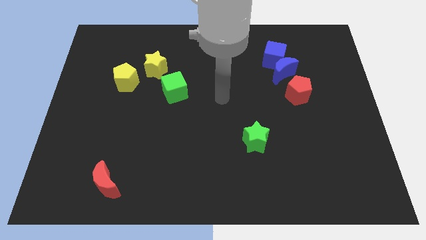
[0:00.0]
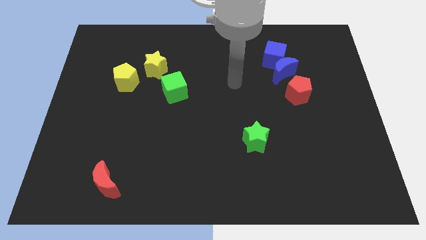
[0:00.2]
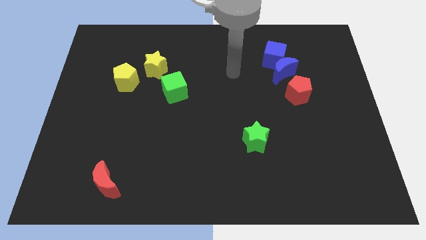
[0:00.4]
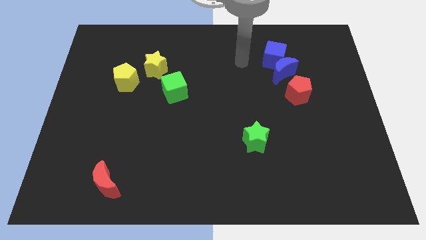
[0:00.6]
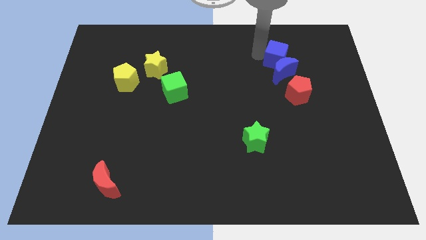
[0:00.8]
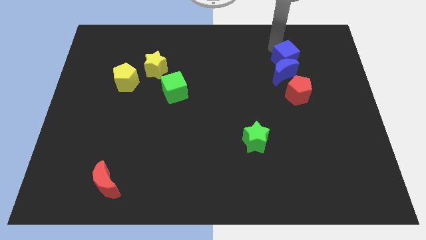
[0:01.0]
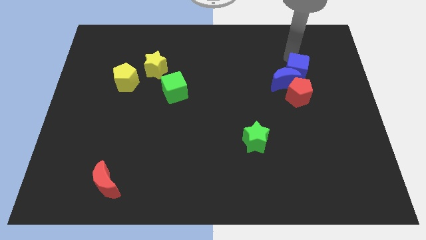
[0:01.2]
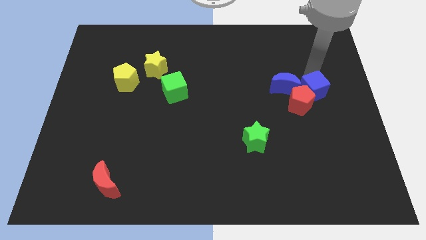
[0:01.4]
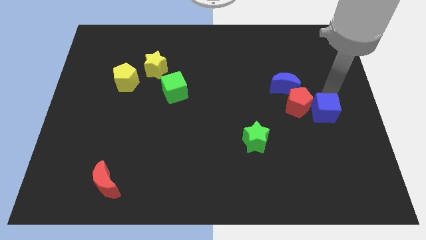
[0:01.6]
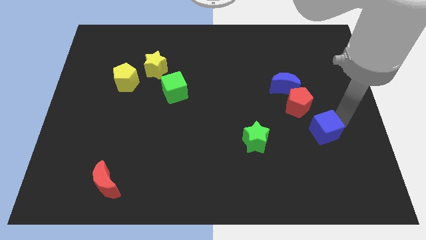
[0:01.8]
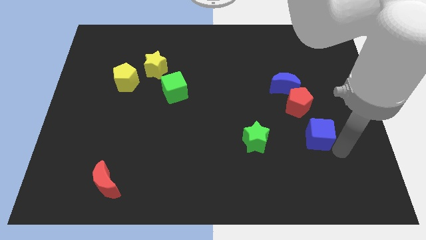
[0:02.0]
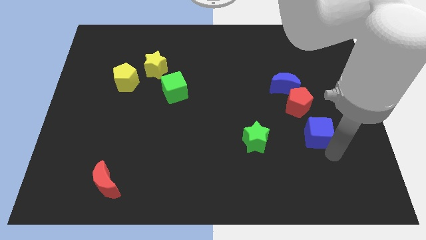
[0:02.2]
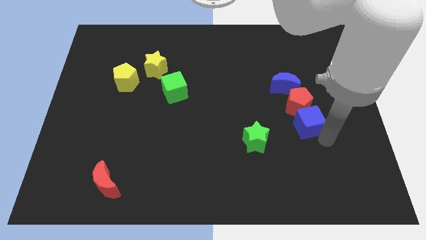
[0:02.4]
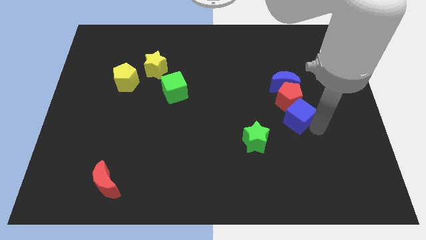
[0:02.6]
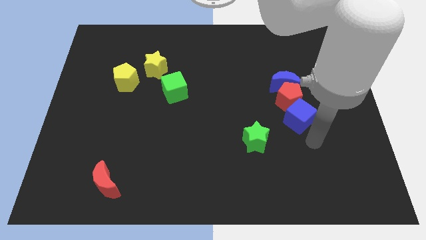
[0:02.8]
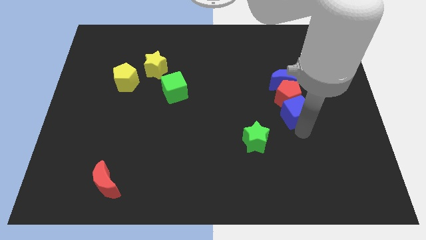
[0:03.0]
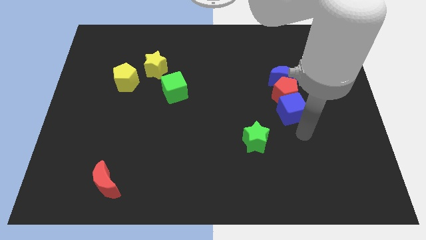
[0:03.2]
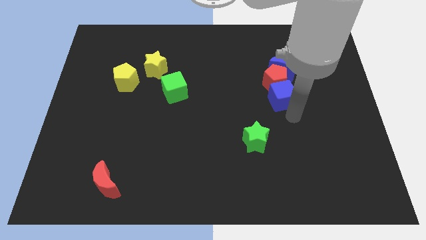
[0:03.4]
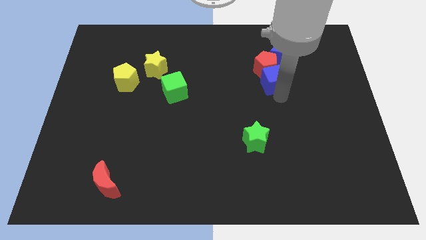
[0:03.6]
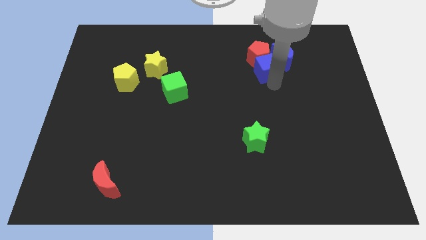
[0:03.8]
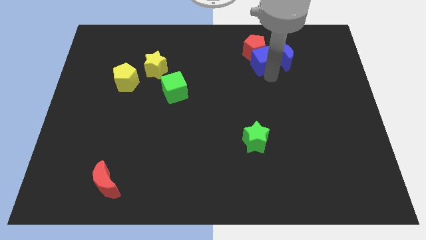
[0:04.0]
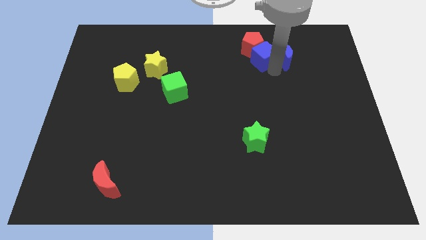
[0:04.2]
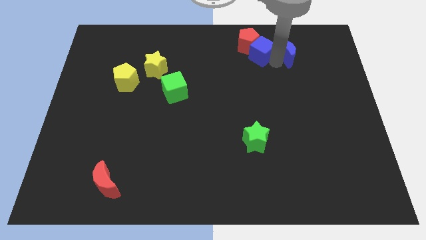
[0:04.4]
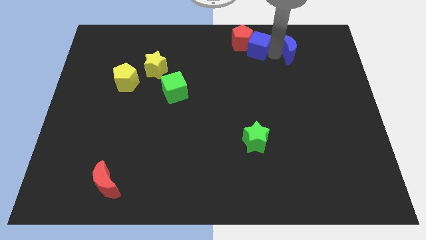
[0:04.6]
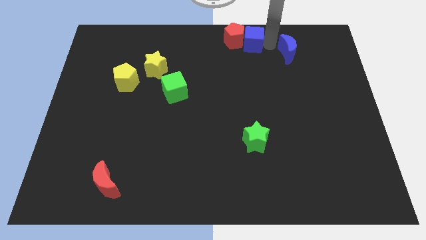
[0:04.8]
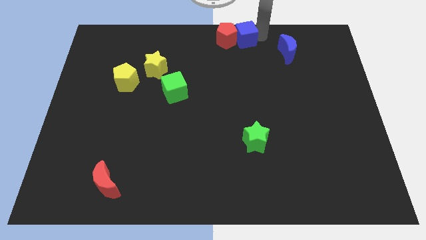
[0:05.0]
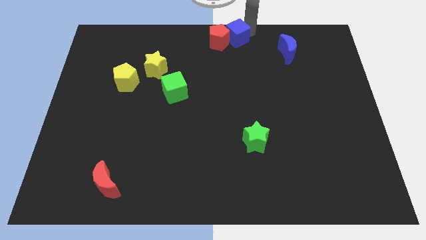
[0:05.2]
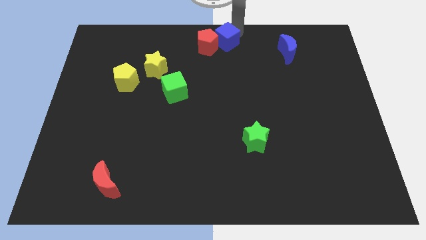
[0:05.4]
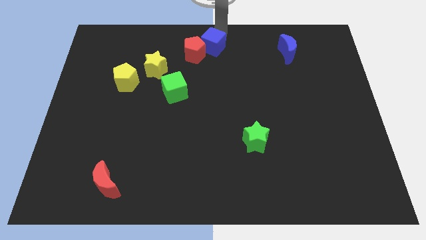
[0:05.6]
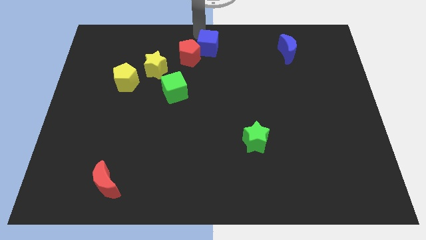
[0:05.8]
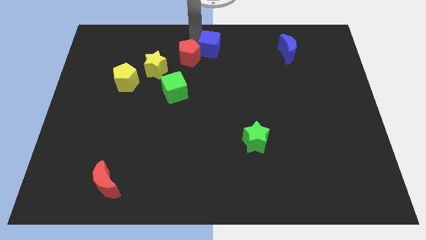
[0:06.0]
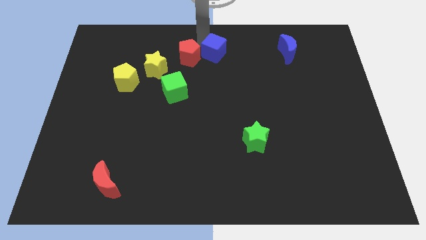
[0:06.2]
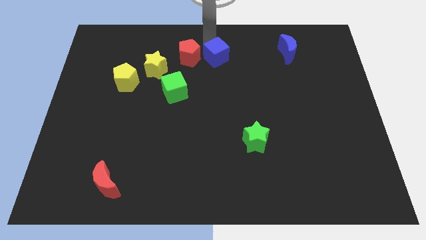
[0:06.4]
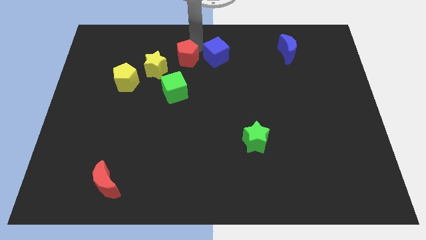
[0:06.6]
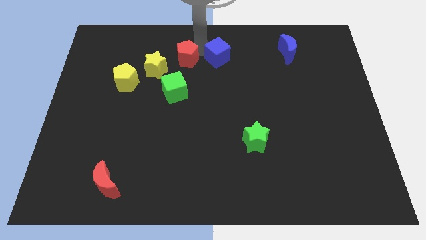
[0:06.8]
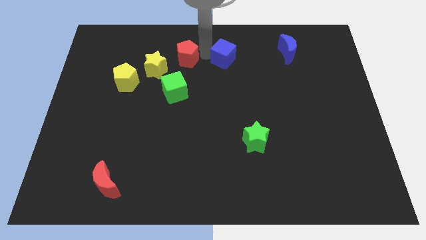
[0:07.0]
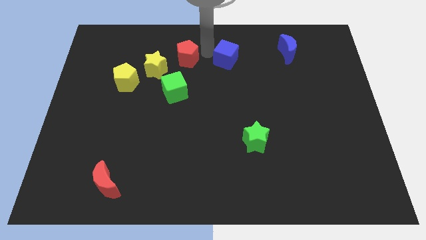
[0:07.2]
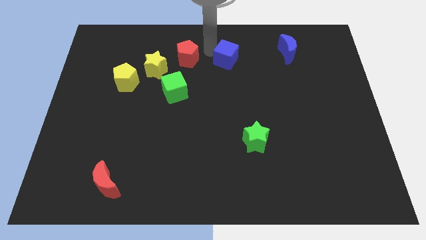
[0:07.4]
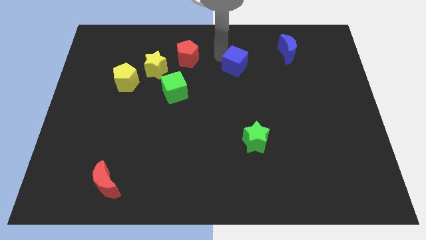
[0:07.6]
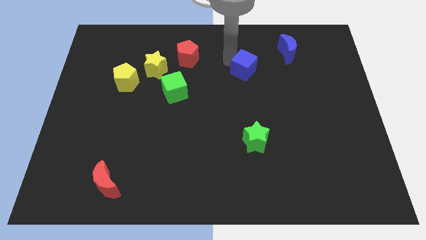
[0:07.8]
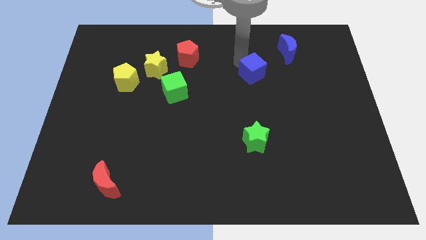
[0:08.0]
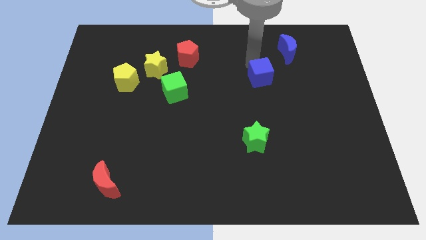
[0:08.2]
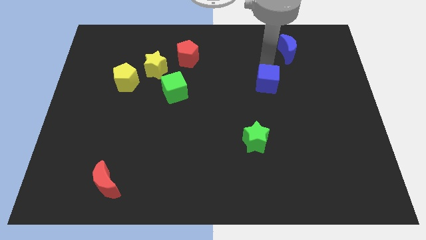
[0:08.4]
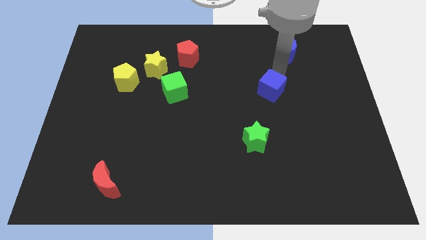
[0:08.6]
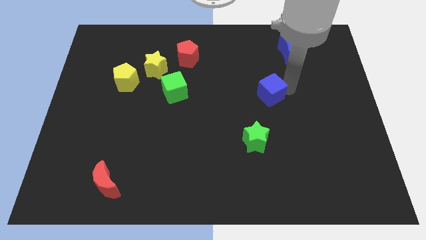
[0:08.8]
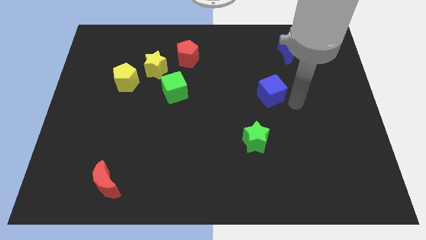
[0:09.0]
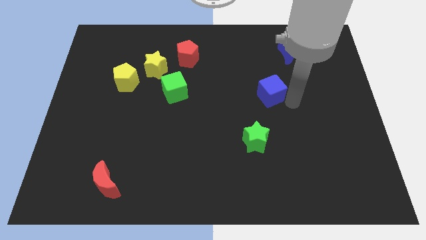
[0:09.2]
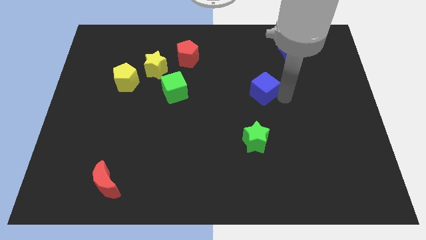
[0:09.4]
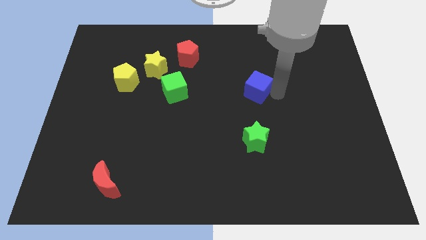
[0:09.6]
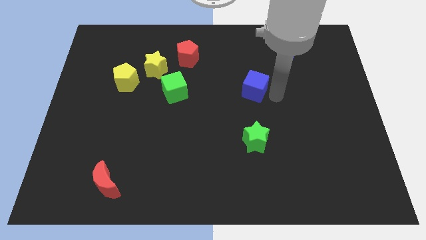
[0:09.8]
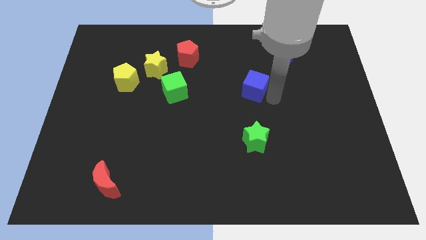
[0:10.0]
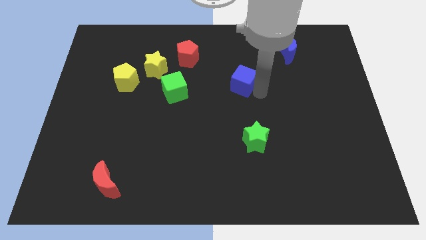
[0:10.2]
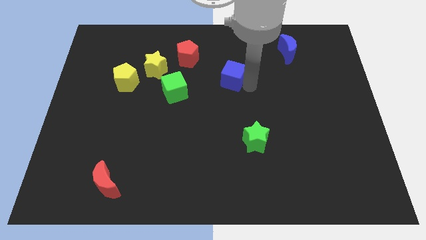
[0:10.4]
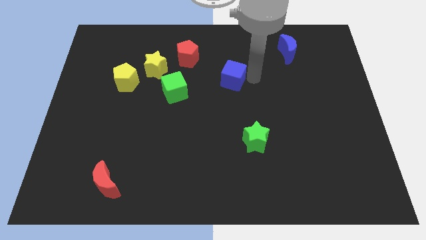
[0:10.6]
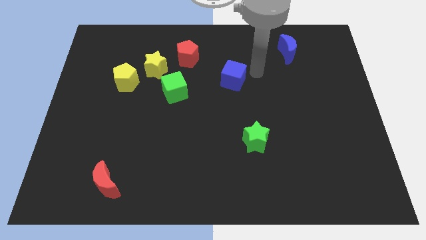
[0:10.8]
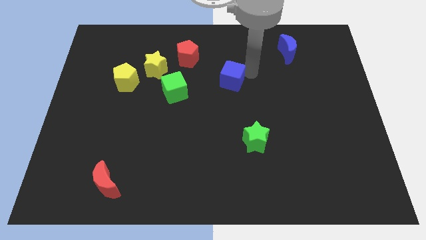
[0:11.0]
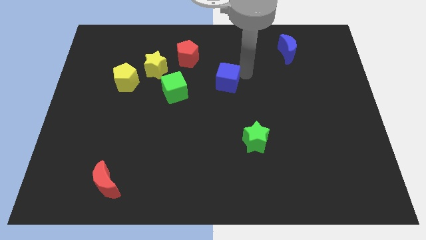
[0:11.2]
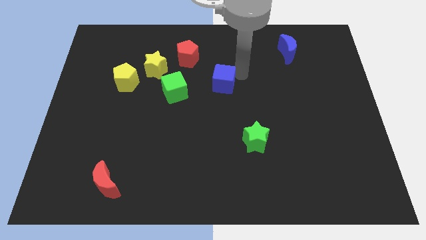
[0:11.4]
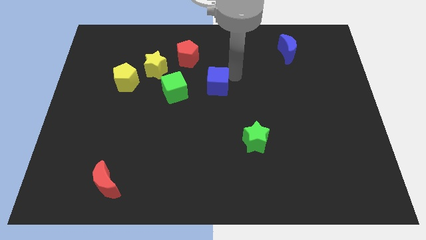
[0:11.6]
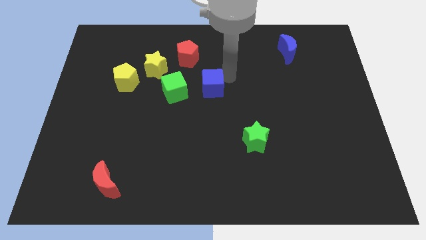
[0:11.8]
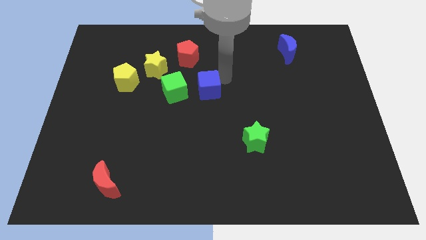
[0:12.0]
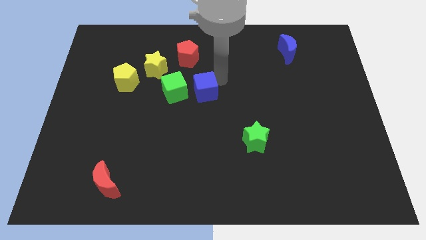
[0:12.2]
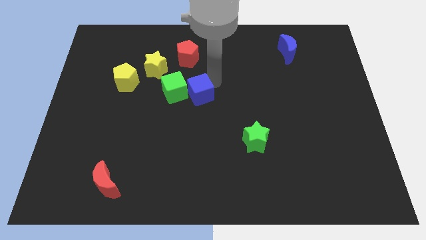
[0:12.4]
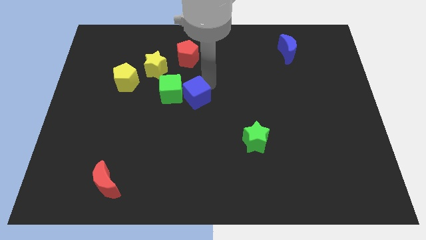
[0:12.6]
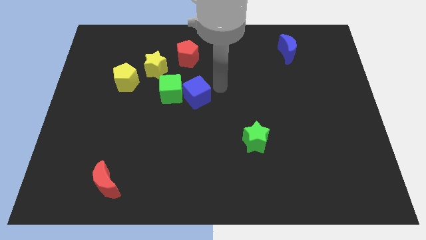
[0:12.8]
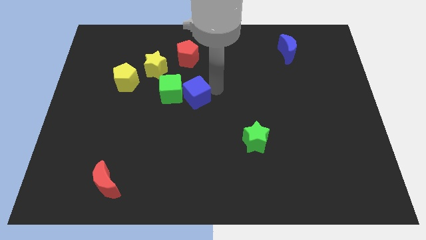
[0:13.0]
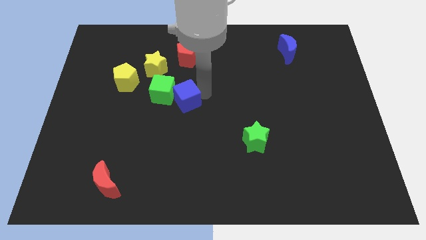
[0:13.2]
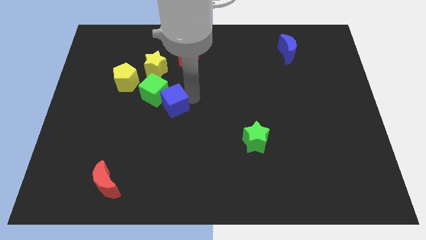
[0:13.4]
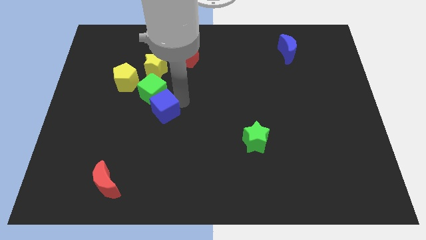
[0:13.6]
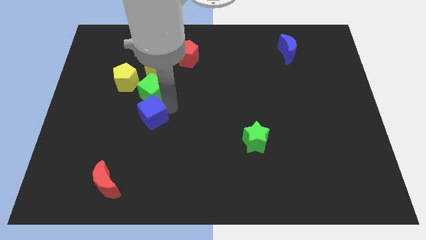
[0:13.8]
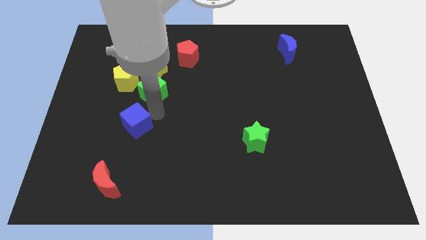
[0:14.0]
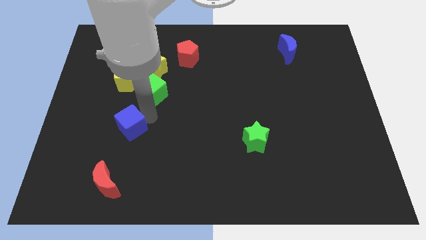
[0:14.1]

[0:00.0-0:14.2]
put the blue cube to the top of the red moon
